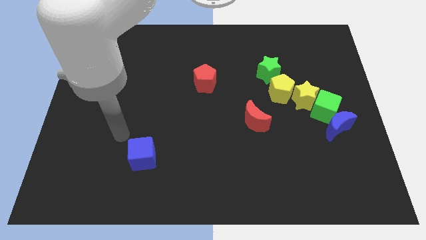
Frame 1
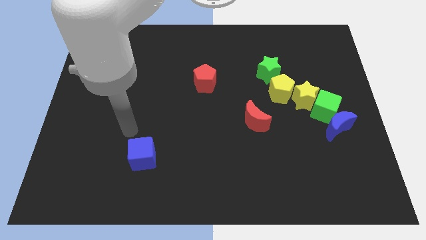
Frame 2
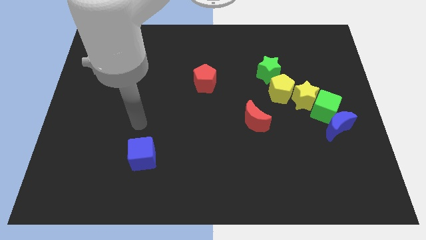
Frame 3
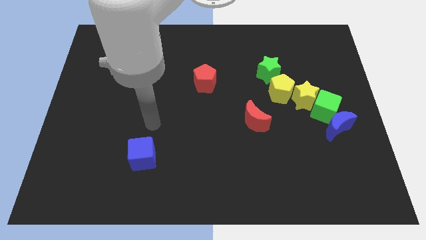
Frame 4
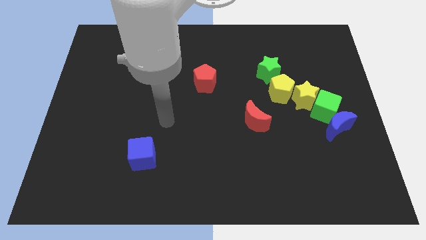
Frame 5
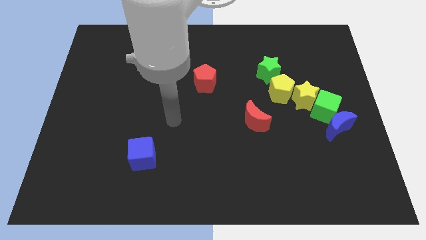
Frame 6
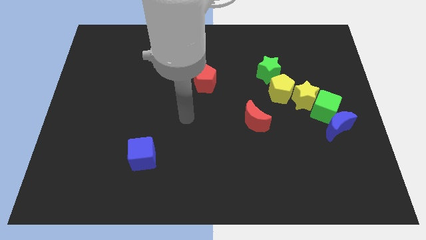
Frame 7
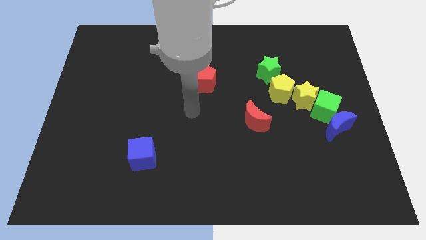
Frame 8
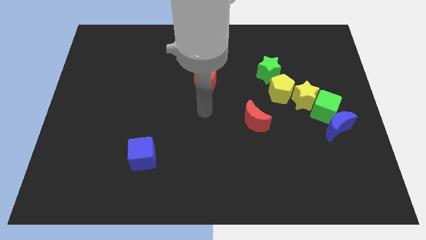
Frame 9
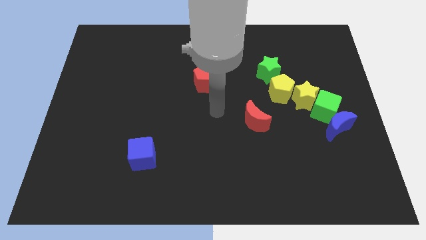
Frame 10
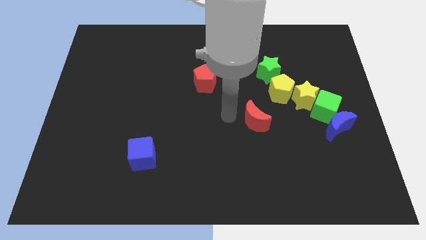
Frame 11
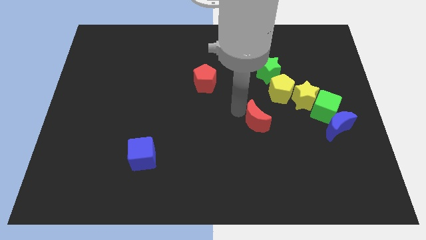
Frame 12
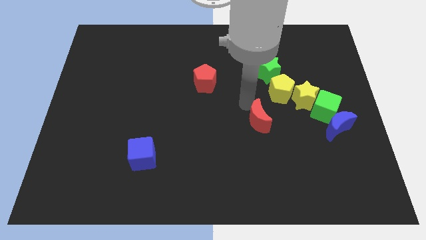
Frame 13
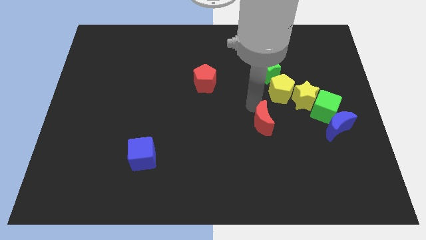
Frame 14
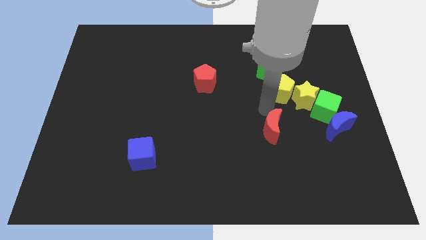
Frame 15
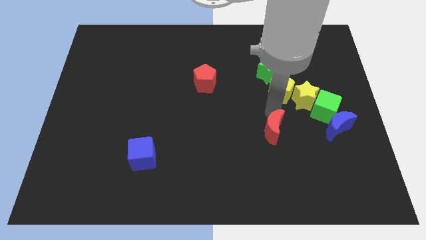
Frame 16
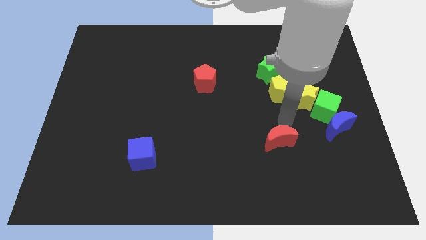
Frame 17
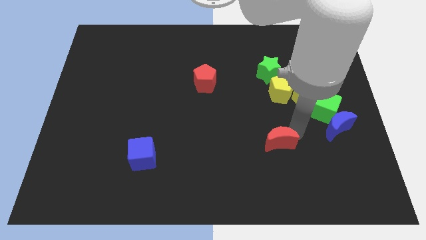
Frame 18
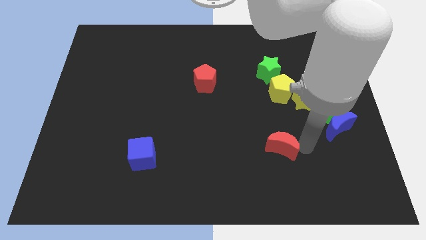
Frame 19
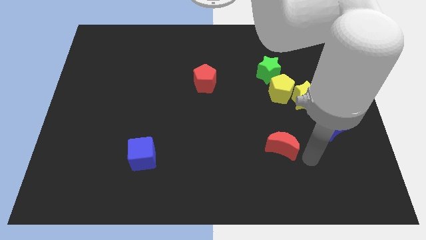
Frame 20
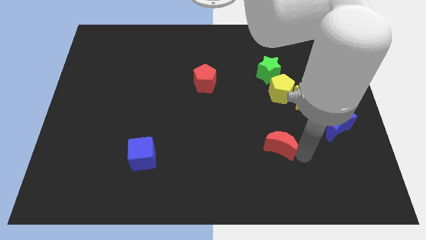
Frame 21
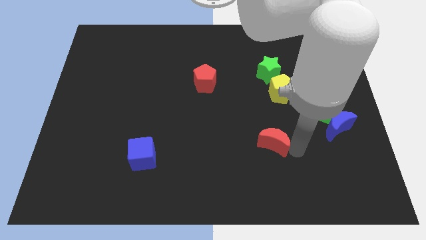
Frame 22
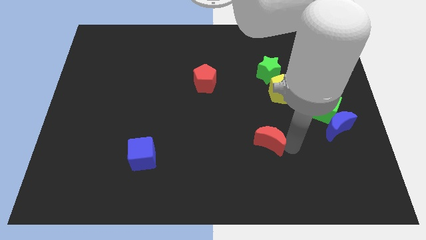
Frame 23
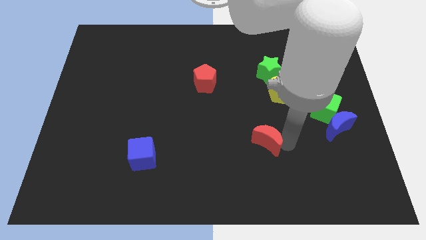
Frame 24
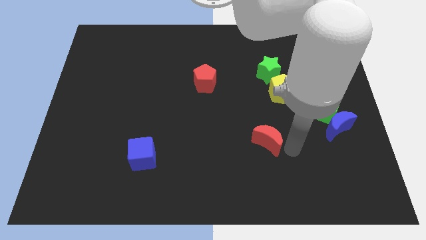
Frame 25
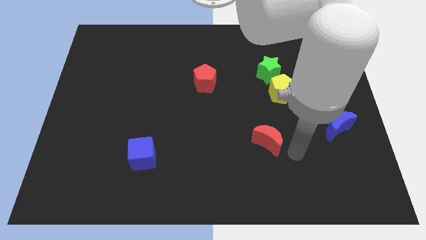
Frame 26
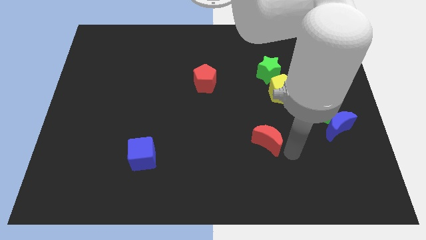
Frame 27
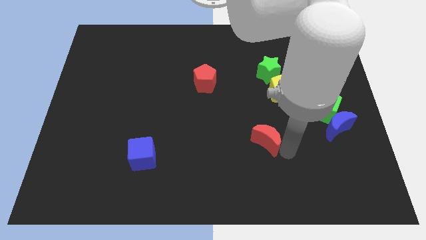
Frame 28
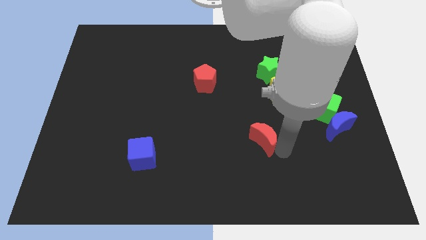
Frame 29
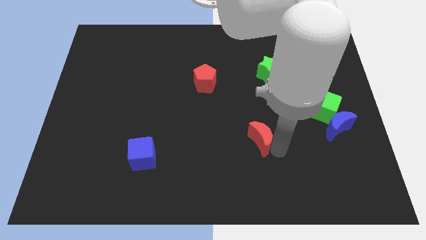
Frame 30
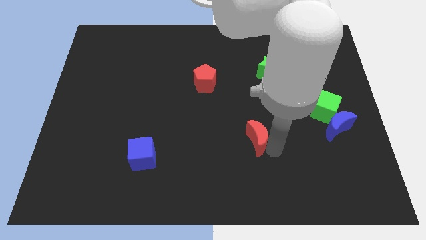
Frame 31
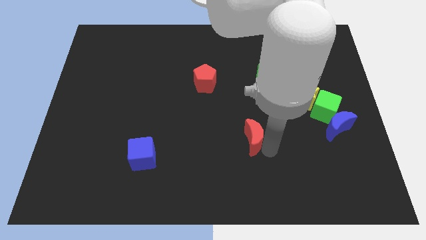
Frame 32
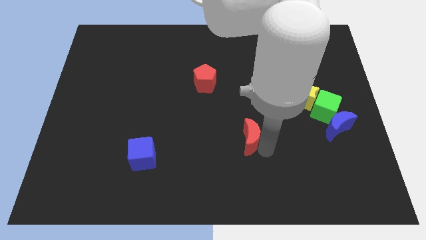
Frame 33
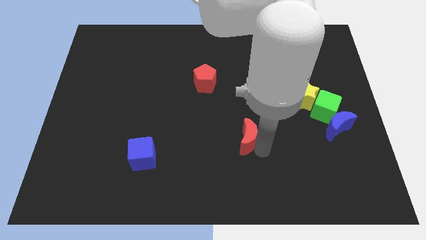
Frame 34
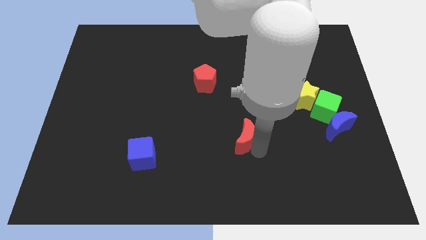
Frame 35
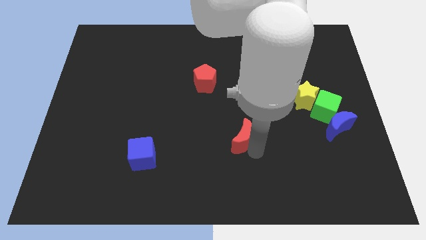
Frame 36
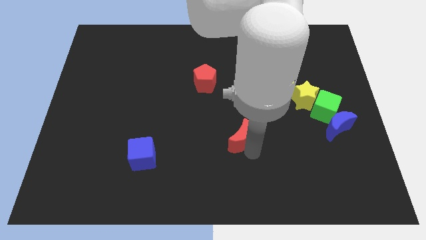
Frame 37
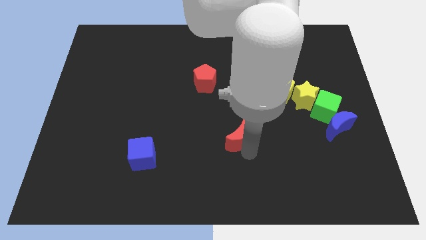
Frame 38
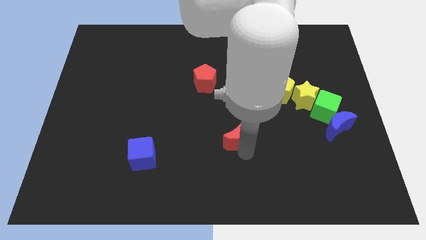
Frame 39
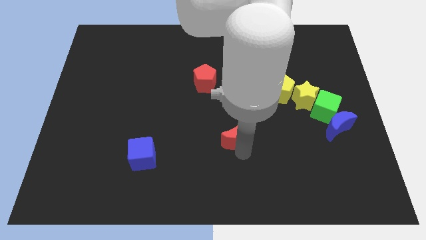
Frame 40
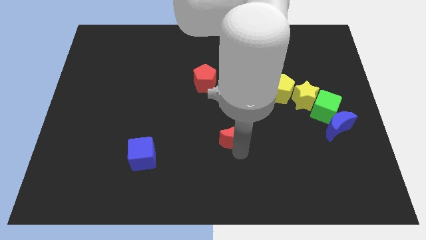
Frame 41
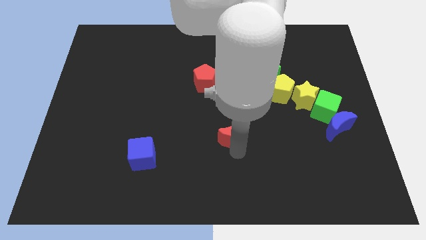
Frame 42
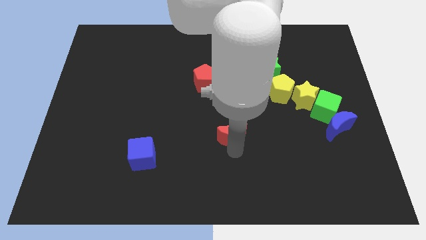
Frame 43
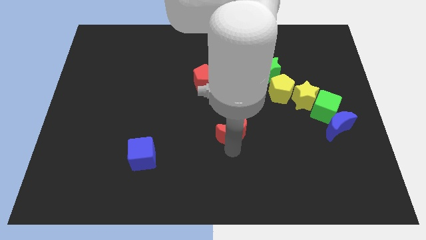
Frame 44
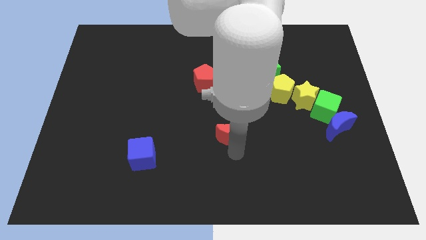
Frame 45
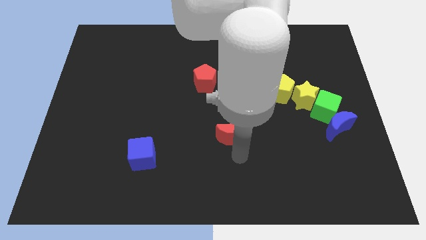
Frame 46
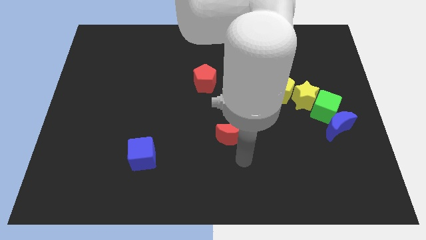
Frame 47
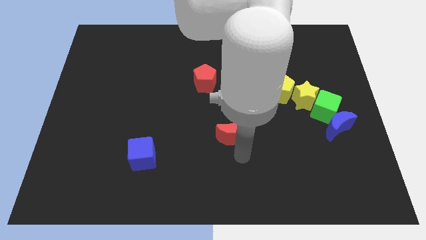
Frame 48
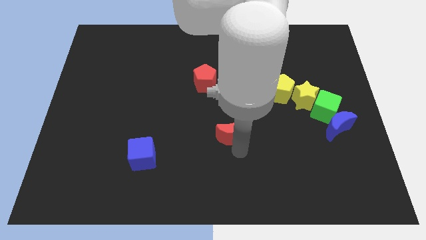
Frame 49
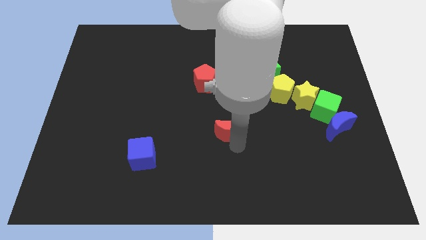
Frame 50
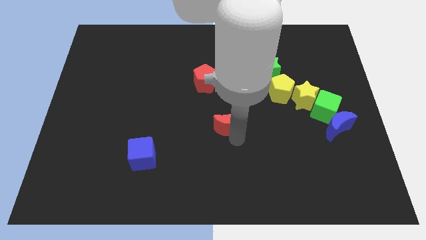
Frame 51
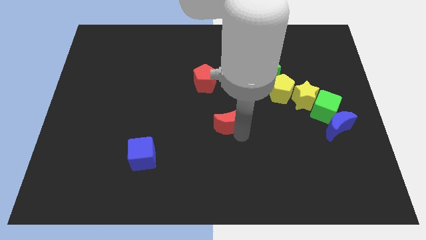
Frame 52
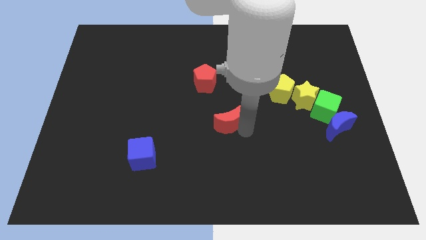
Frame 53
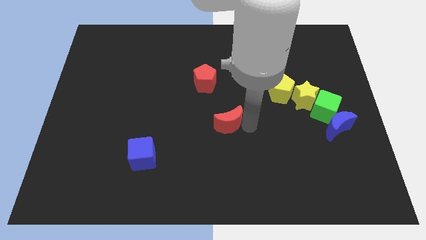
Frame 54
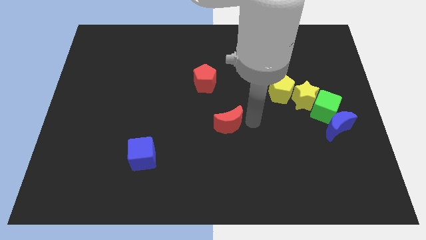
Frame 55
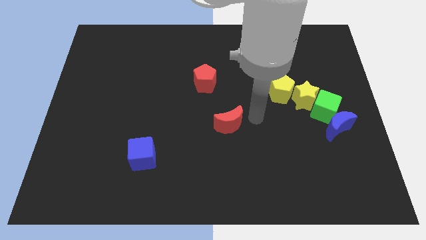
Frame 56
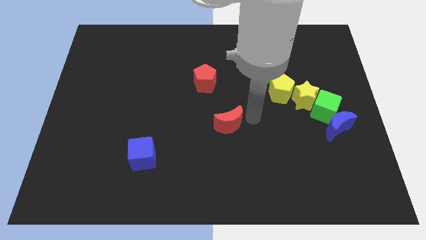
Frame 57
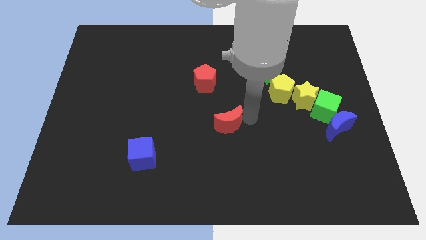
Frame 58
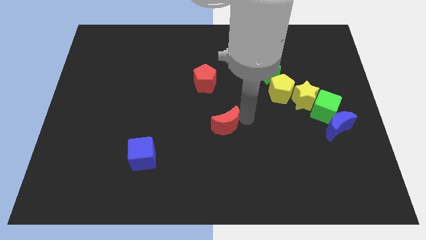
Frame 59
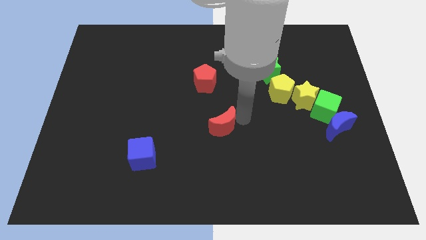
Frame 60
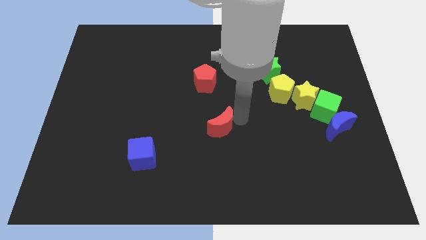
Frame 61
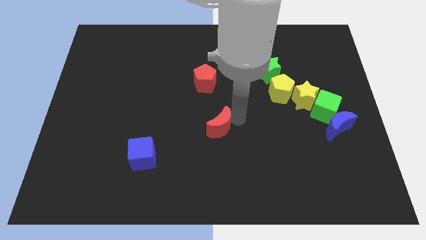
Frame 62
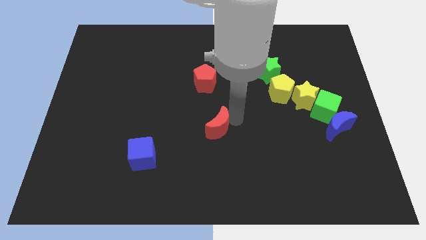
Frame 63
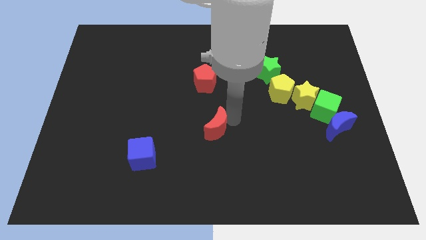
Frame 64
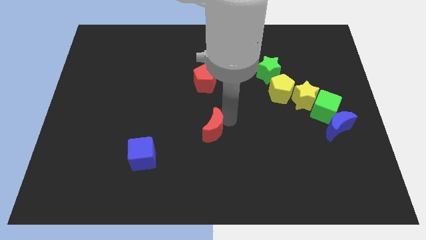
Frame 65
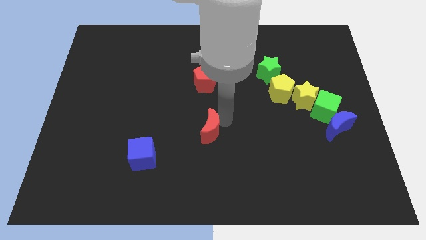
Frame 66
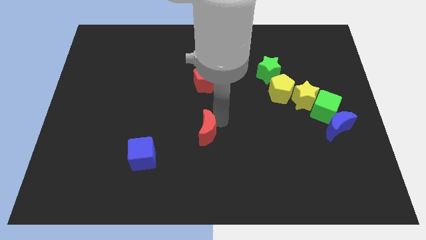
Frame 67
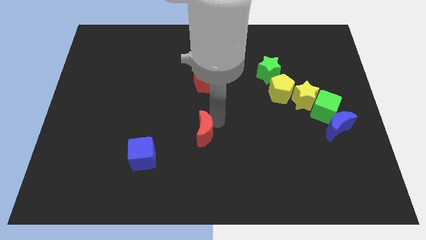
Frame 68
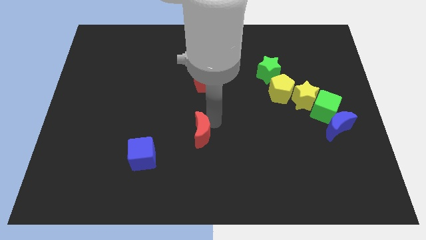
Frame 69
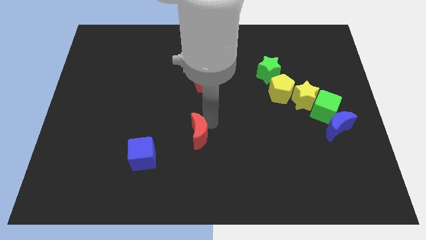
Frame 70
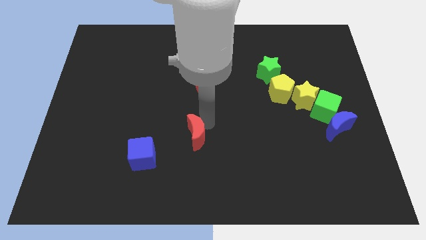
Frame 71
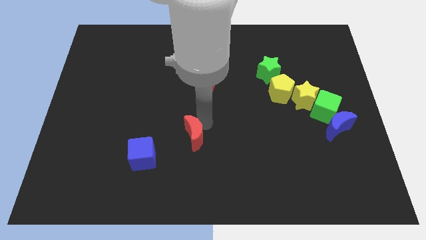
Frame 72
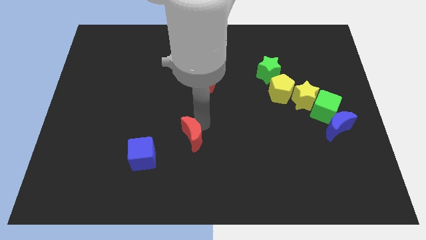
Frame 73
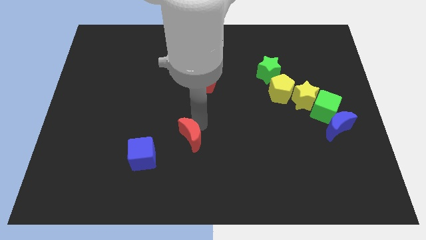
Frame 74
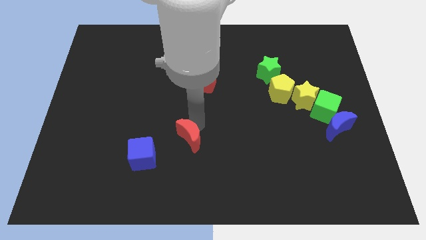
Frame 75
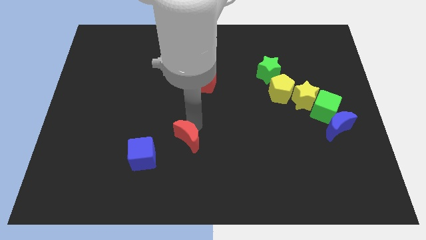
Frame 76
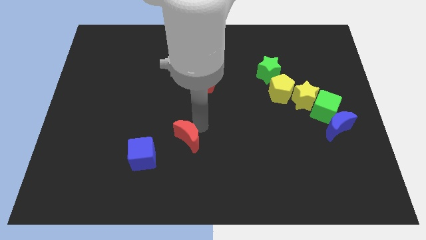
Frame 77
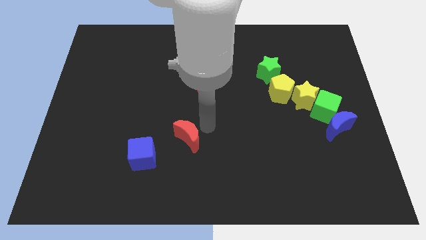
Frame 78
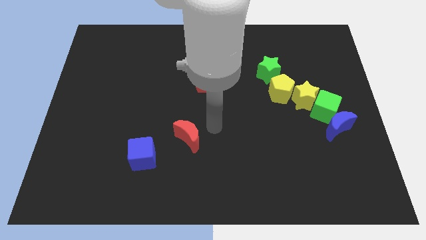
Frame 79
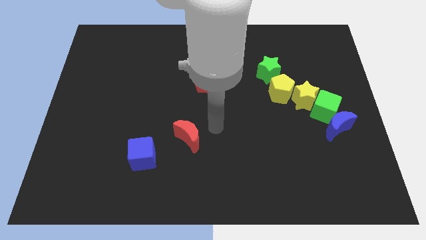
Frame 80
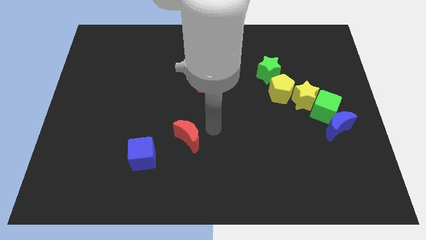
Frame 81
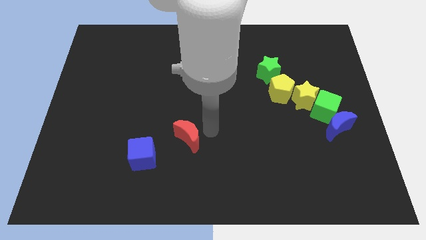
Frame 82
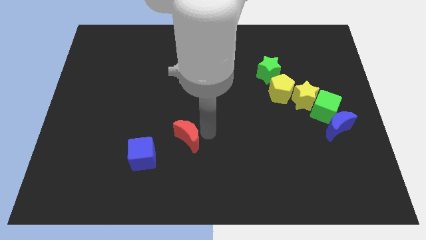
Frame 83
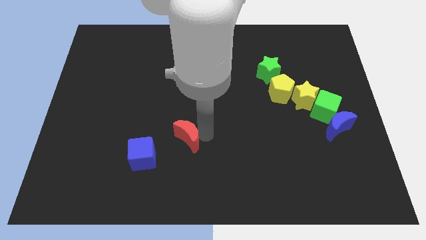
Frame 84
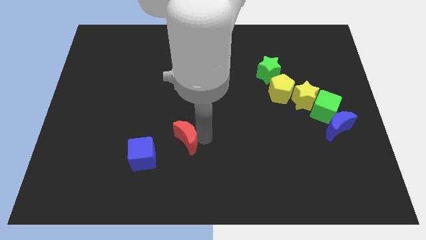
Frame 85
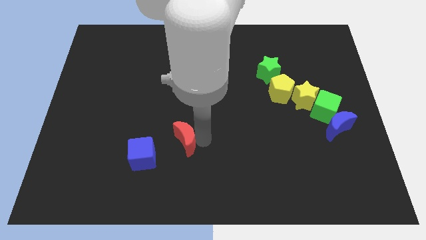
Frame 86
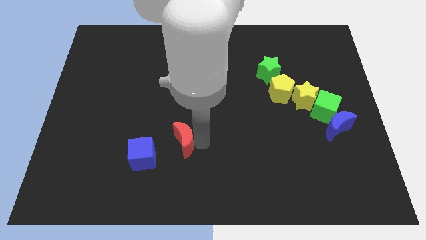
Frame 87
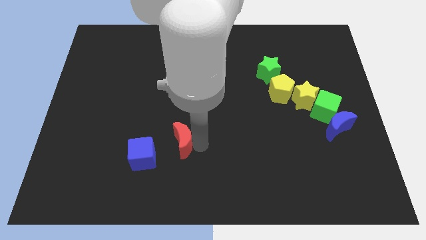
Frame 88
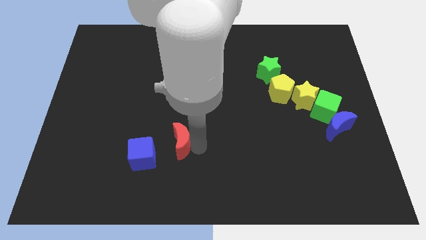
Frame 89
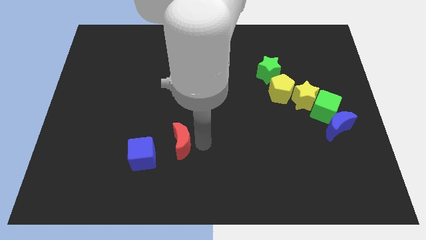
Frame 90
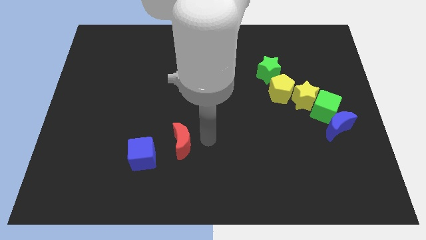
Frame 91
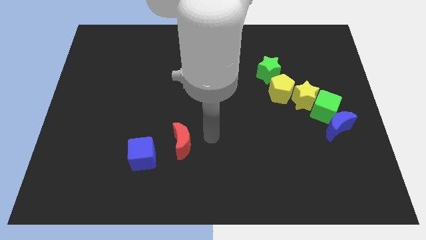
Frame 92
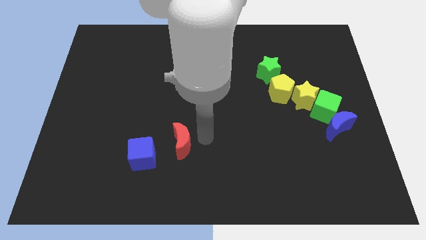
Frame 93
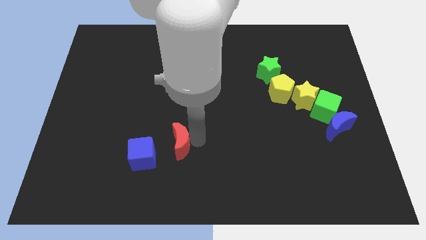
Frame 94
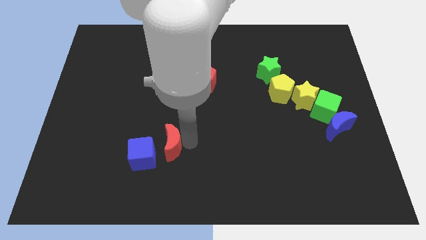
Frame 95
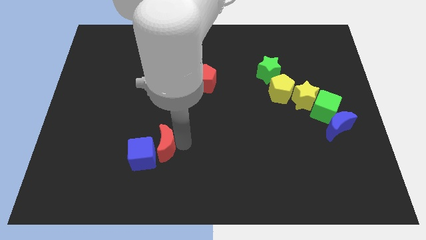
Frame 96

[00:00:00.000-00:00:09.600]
push the red moon to the blue cube
